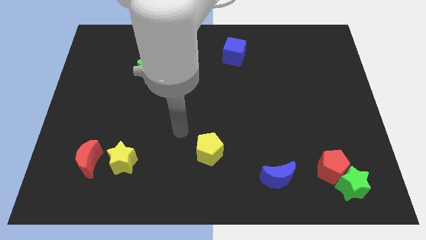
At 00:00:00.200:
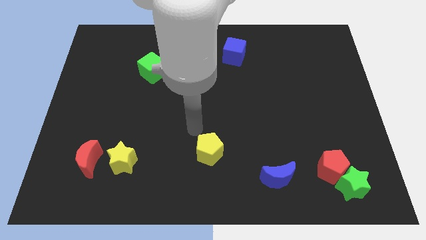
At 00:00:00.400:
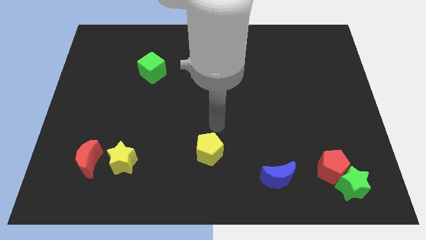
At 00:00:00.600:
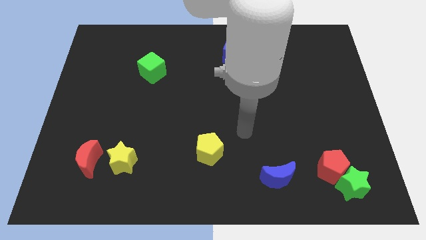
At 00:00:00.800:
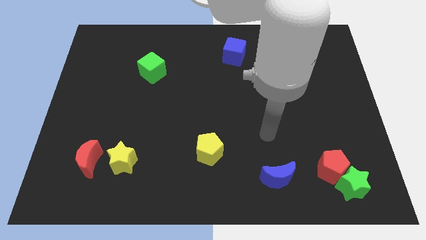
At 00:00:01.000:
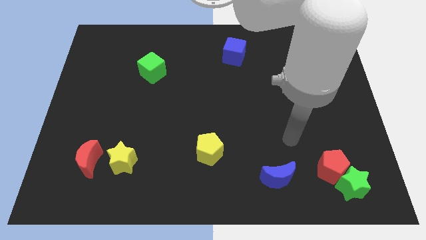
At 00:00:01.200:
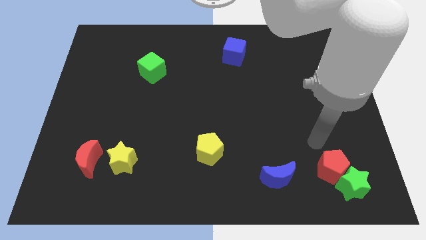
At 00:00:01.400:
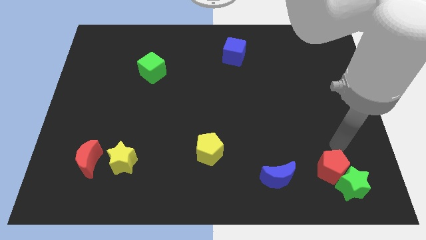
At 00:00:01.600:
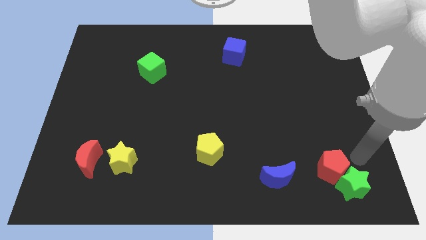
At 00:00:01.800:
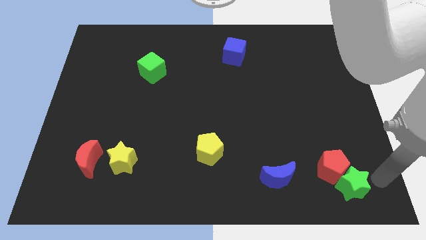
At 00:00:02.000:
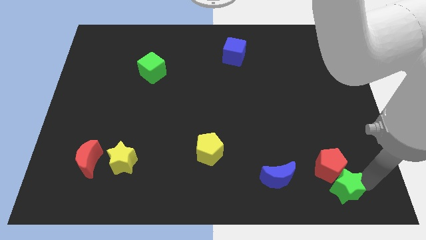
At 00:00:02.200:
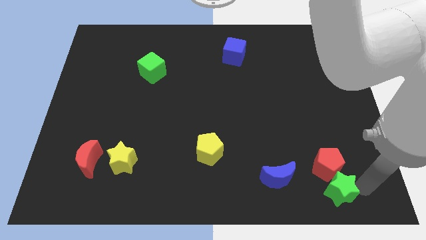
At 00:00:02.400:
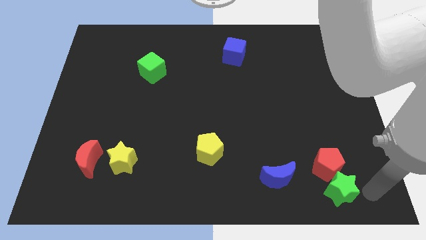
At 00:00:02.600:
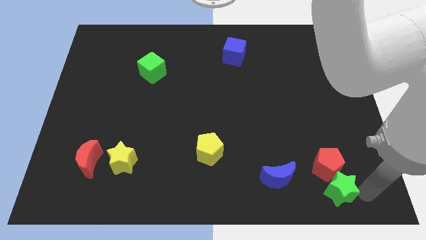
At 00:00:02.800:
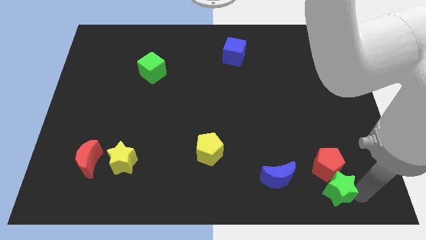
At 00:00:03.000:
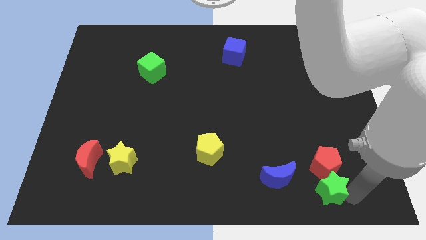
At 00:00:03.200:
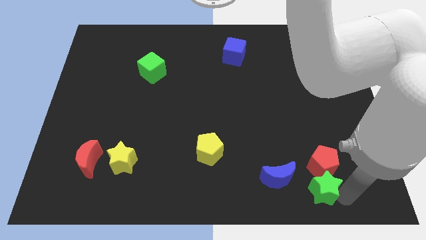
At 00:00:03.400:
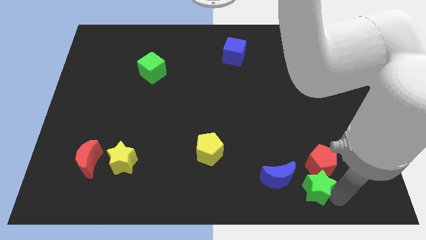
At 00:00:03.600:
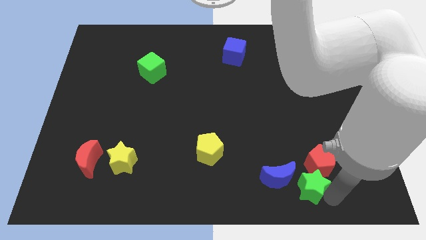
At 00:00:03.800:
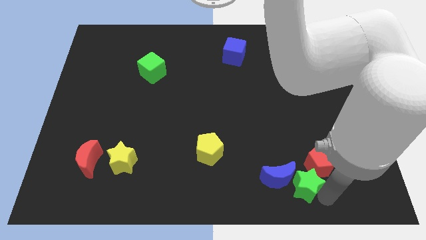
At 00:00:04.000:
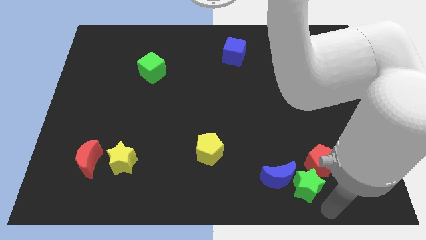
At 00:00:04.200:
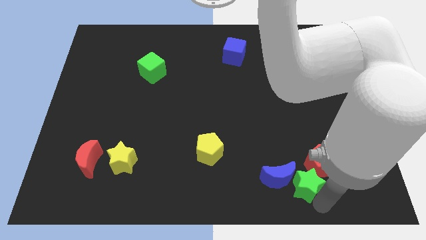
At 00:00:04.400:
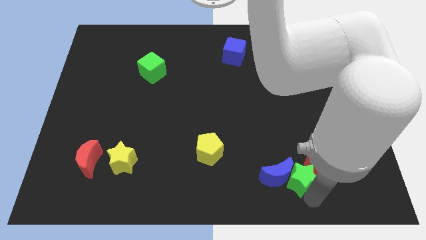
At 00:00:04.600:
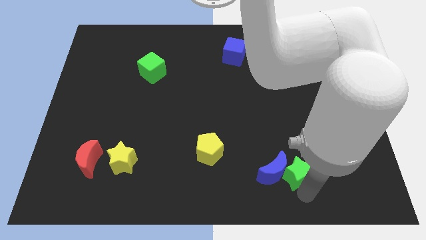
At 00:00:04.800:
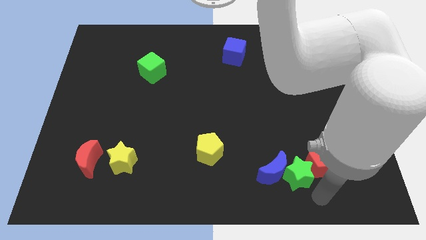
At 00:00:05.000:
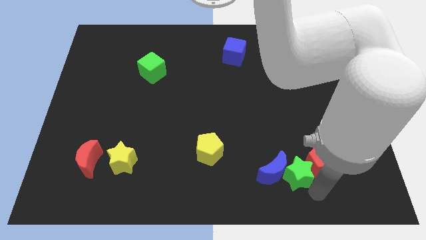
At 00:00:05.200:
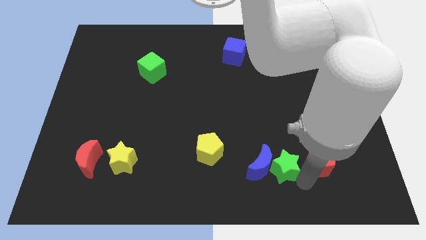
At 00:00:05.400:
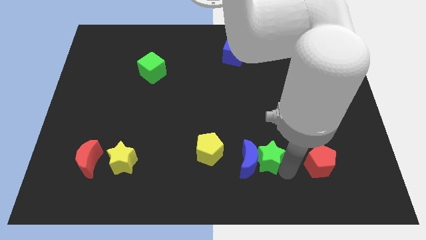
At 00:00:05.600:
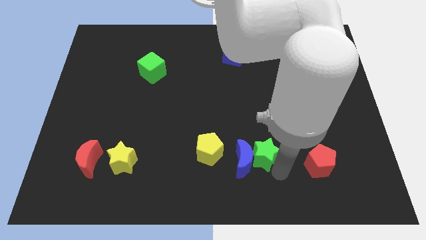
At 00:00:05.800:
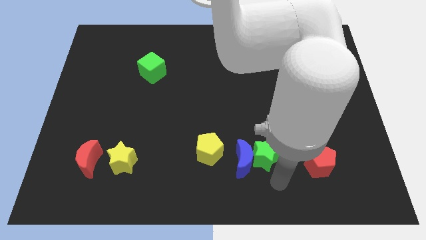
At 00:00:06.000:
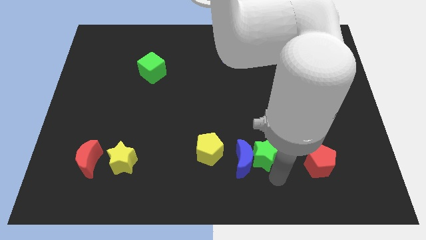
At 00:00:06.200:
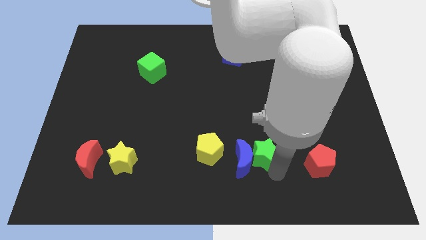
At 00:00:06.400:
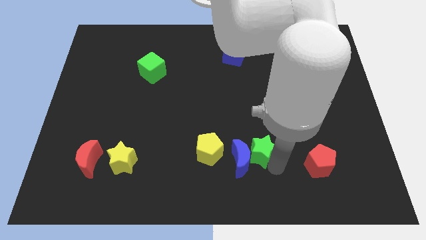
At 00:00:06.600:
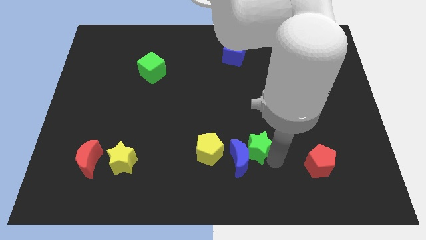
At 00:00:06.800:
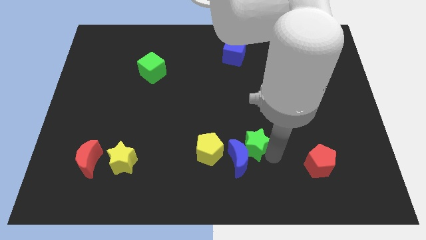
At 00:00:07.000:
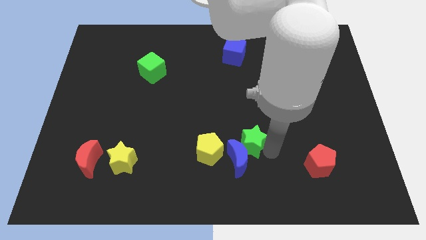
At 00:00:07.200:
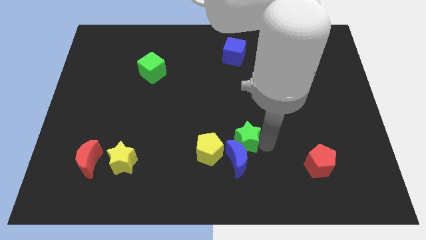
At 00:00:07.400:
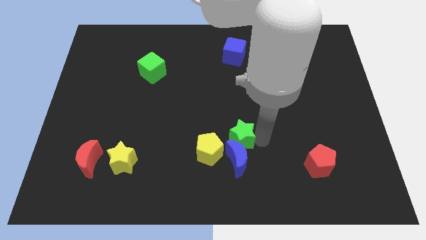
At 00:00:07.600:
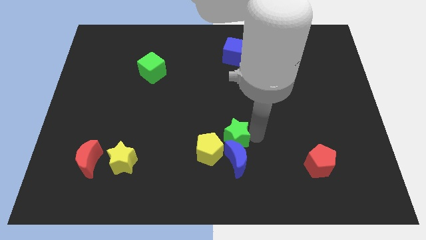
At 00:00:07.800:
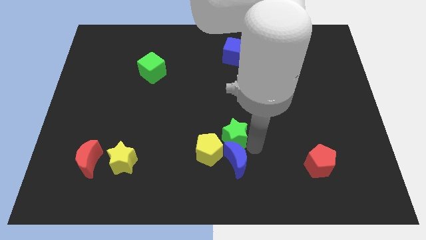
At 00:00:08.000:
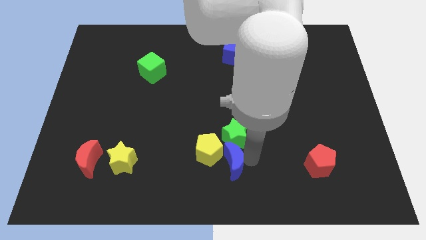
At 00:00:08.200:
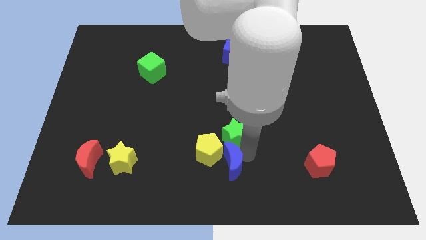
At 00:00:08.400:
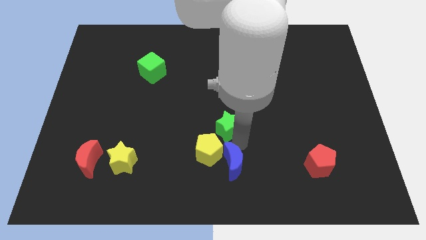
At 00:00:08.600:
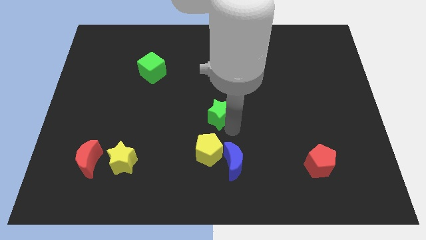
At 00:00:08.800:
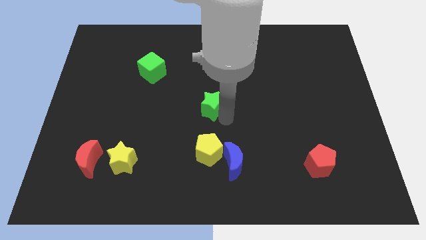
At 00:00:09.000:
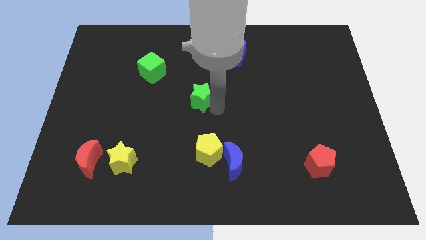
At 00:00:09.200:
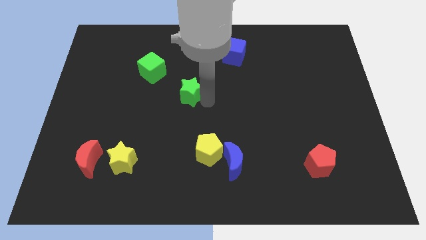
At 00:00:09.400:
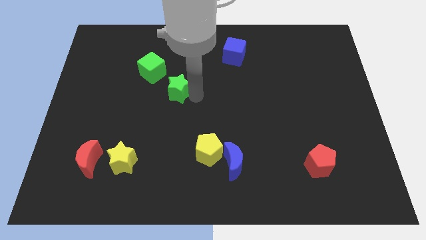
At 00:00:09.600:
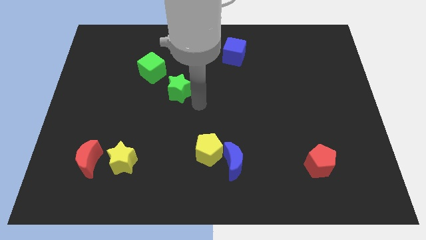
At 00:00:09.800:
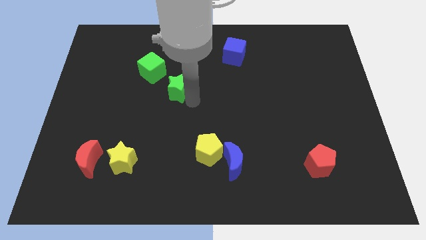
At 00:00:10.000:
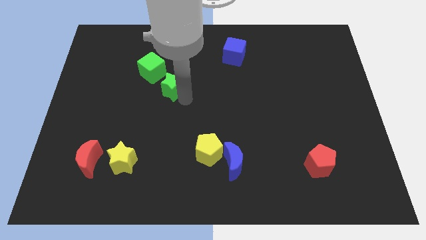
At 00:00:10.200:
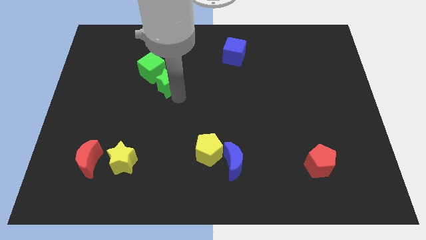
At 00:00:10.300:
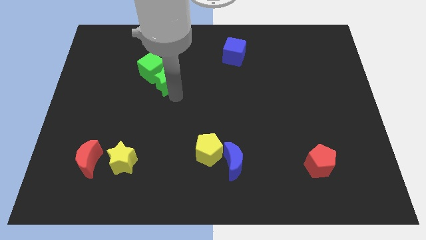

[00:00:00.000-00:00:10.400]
push the green star to the green cube
